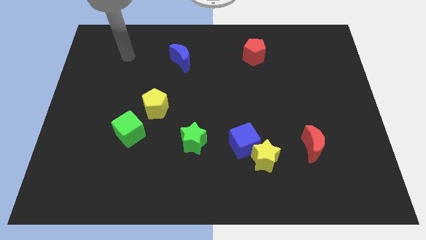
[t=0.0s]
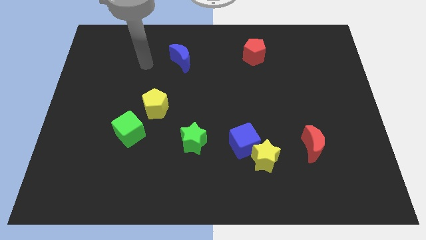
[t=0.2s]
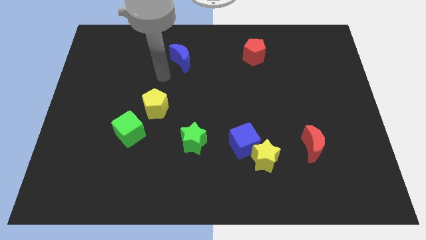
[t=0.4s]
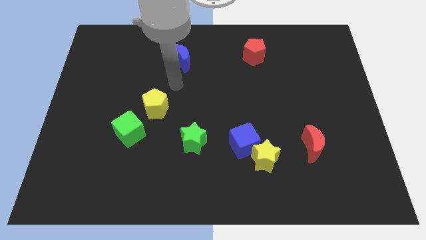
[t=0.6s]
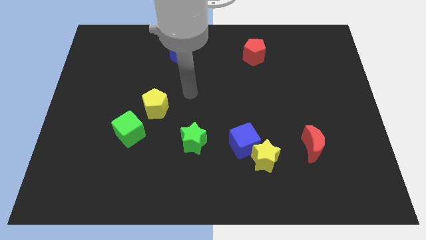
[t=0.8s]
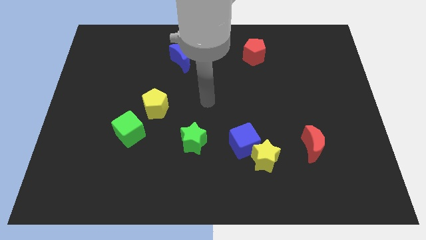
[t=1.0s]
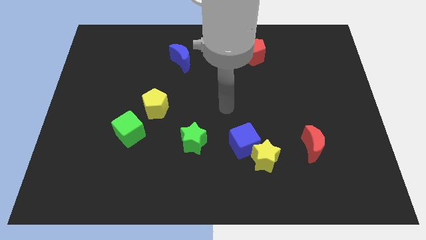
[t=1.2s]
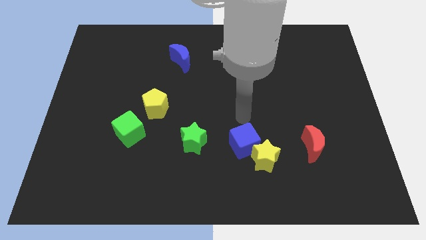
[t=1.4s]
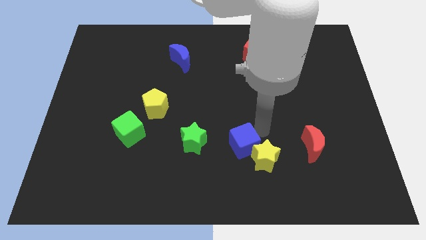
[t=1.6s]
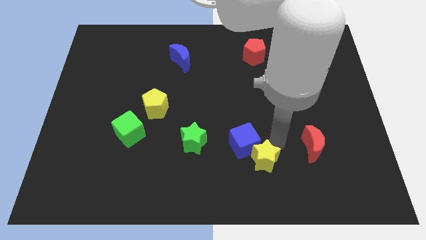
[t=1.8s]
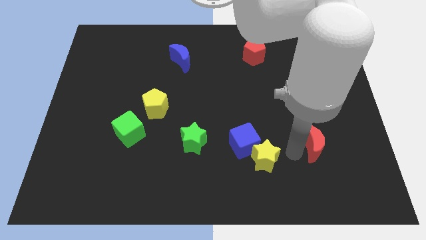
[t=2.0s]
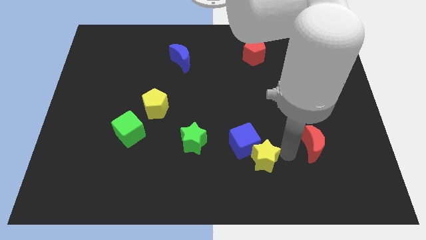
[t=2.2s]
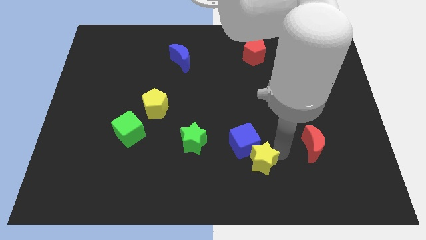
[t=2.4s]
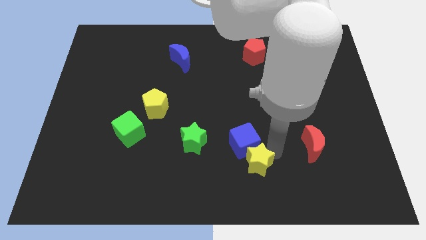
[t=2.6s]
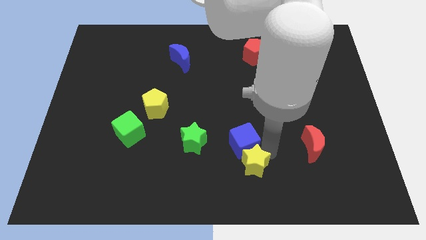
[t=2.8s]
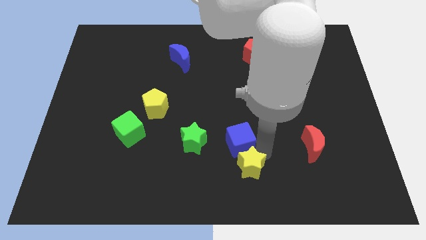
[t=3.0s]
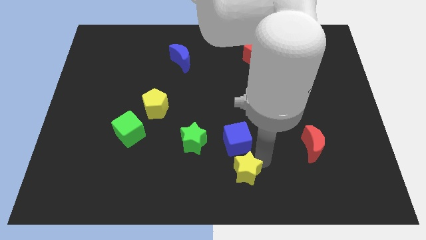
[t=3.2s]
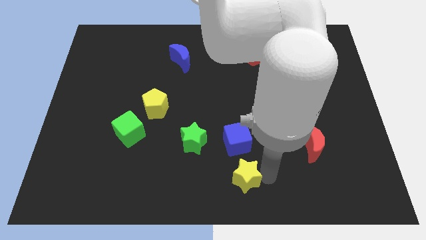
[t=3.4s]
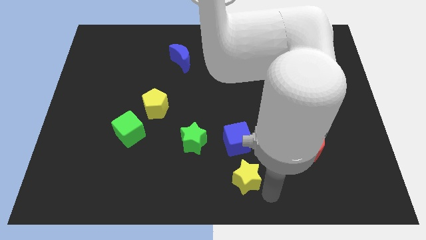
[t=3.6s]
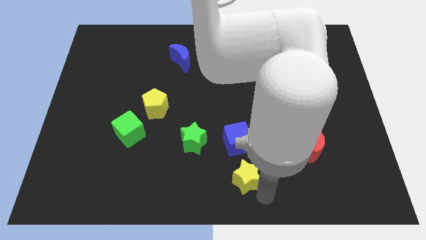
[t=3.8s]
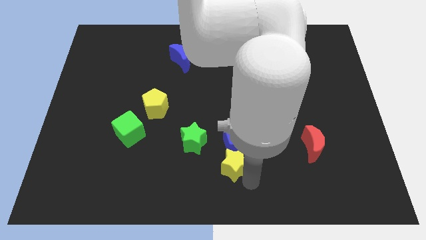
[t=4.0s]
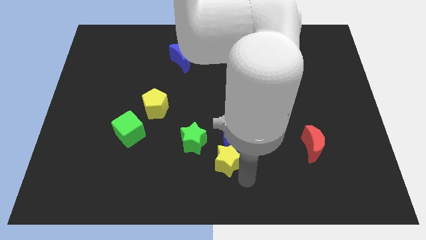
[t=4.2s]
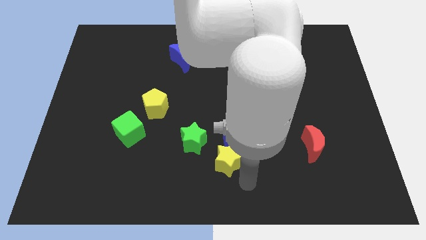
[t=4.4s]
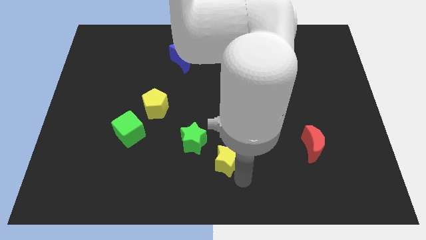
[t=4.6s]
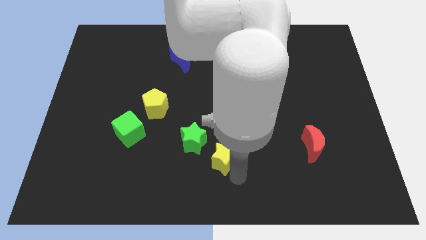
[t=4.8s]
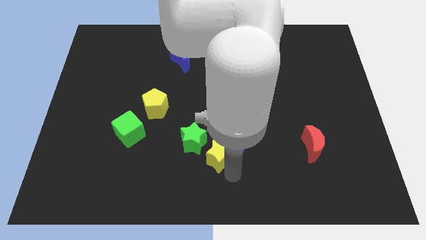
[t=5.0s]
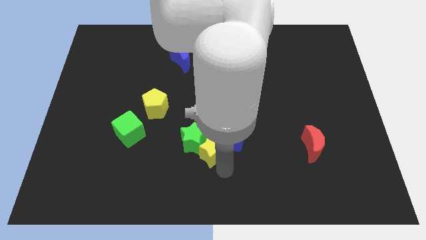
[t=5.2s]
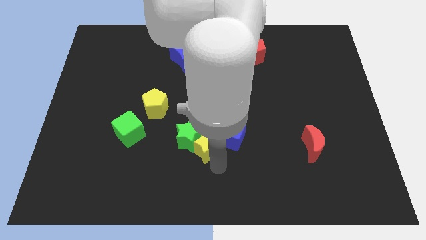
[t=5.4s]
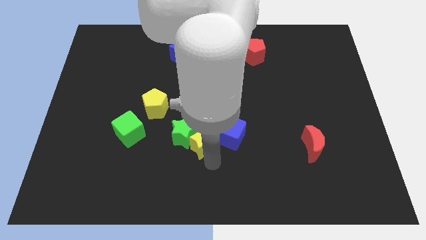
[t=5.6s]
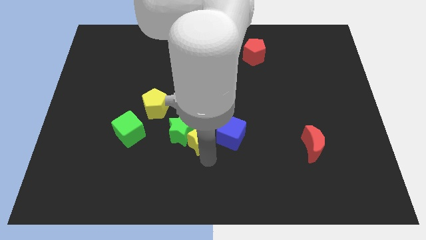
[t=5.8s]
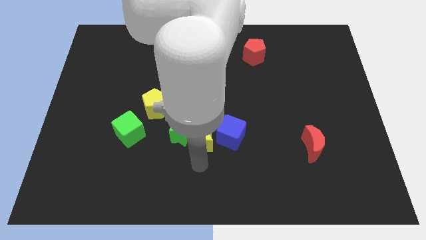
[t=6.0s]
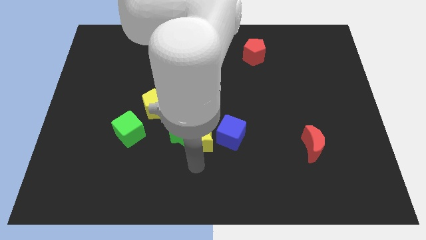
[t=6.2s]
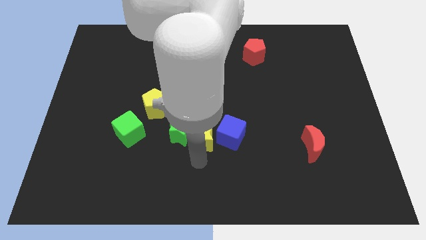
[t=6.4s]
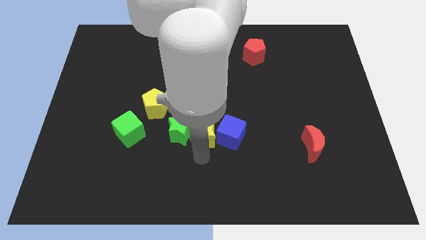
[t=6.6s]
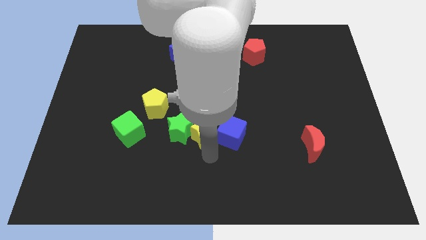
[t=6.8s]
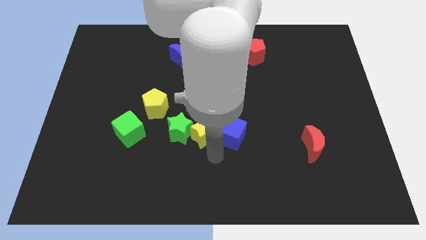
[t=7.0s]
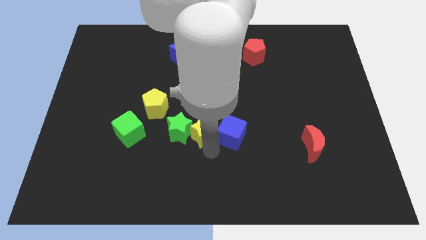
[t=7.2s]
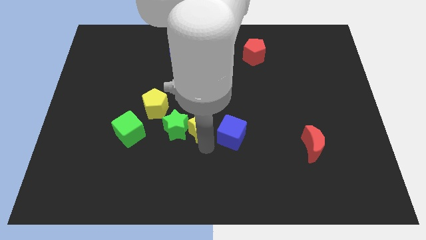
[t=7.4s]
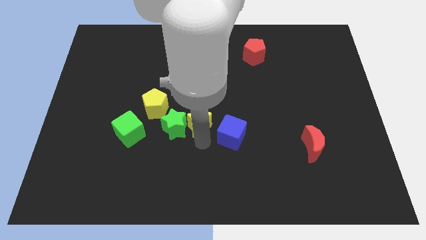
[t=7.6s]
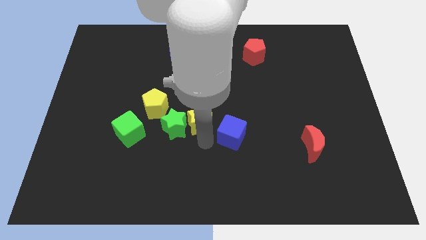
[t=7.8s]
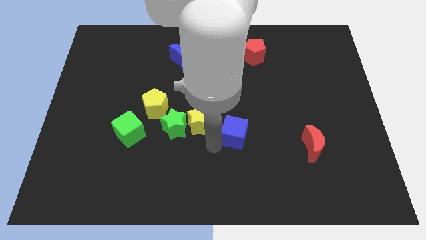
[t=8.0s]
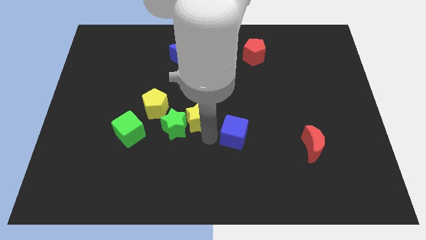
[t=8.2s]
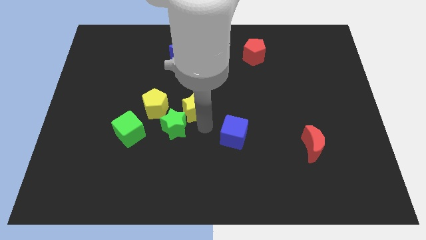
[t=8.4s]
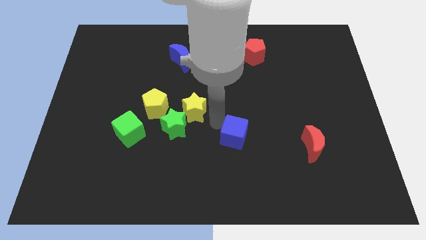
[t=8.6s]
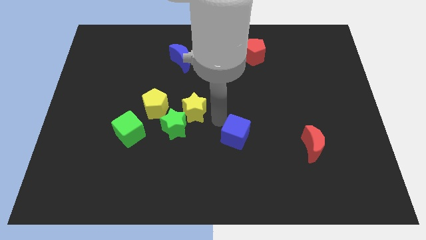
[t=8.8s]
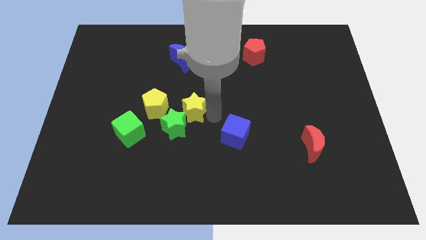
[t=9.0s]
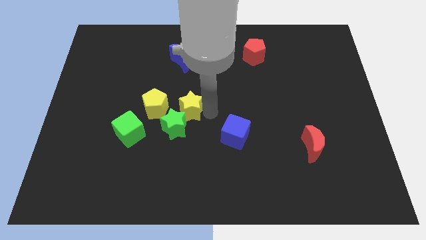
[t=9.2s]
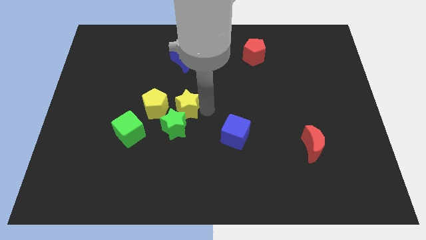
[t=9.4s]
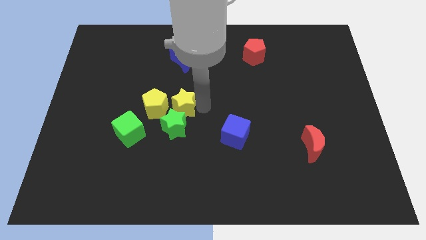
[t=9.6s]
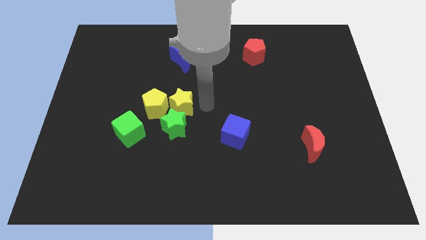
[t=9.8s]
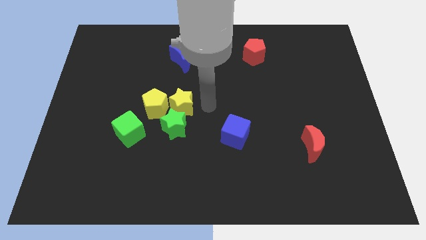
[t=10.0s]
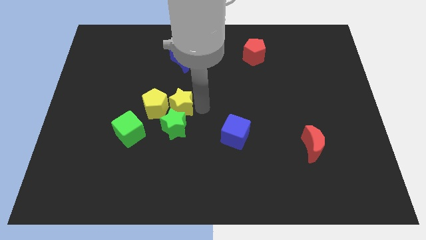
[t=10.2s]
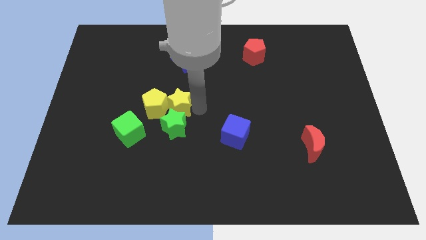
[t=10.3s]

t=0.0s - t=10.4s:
push the yellow star next to the yellow pentagon

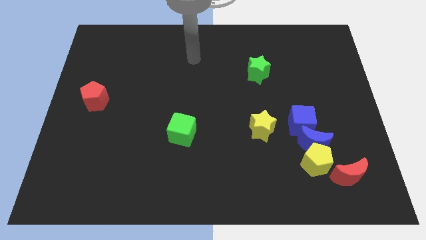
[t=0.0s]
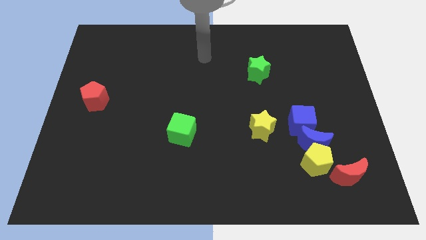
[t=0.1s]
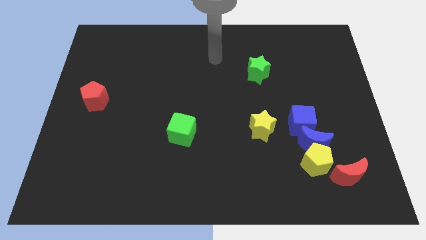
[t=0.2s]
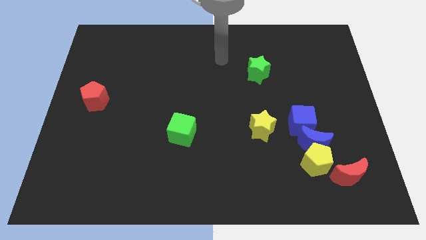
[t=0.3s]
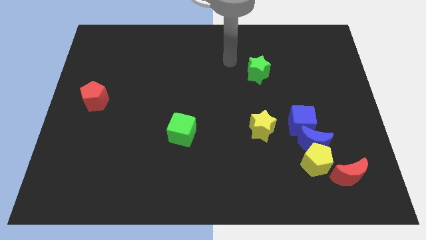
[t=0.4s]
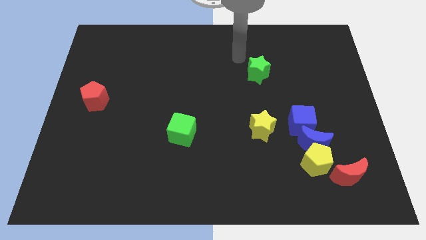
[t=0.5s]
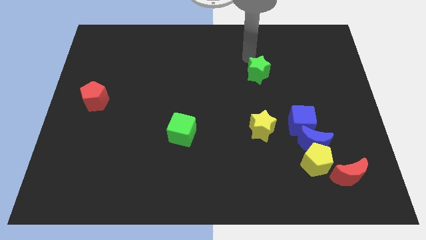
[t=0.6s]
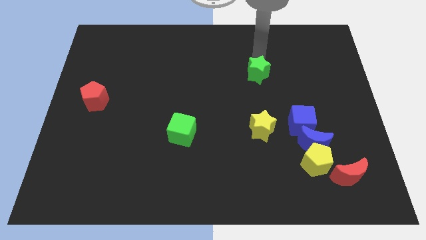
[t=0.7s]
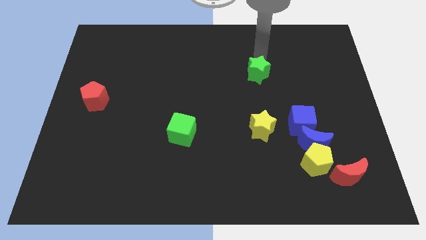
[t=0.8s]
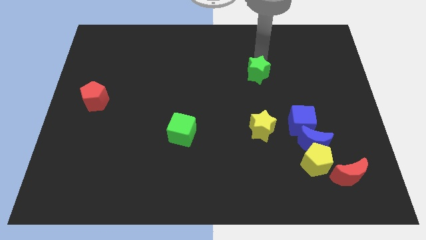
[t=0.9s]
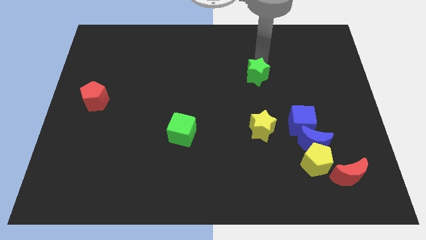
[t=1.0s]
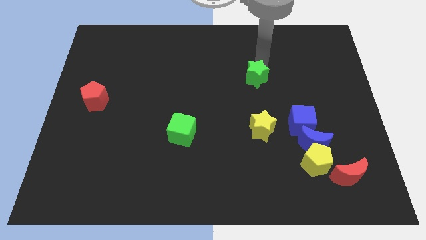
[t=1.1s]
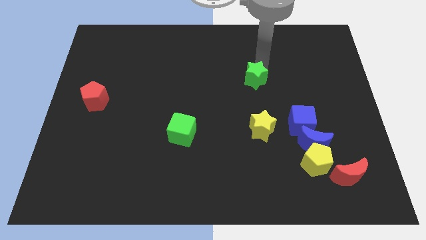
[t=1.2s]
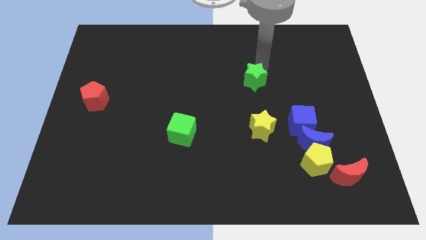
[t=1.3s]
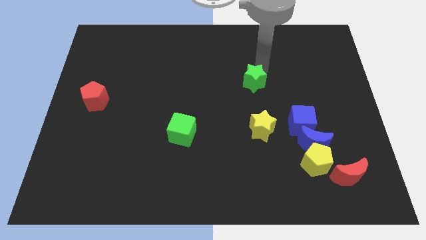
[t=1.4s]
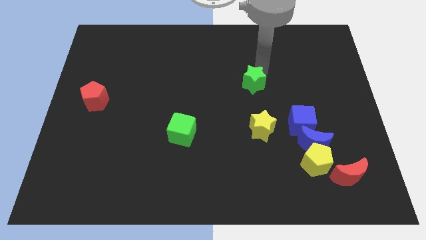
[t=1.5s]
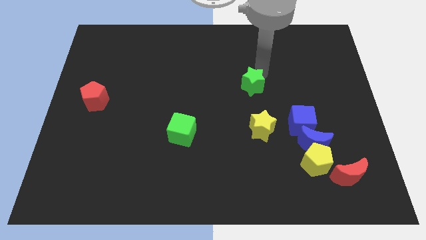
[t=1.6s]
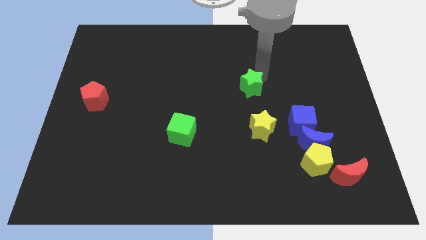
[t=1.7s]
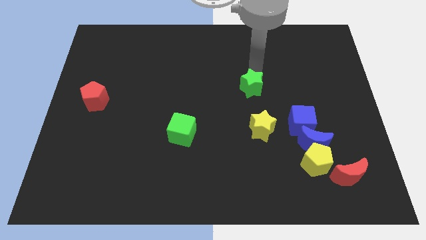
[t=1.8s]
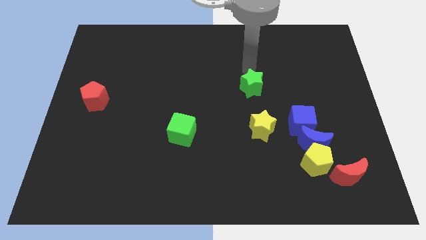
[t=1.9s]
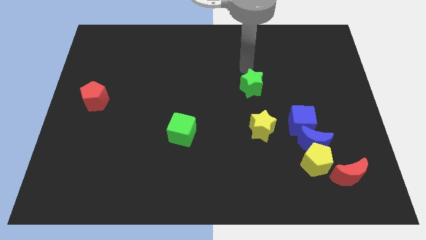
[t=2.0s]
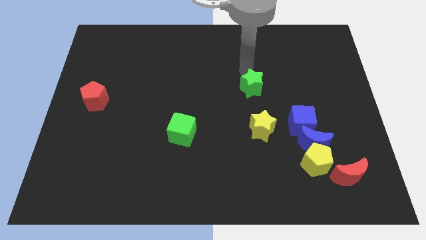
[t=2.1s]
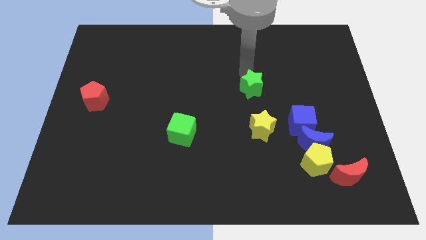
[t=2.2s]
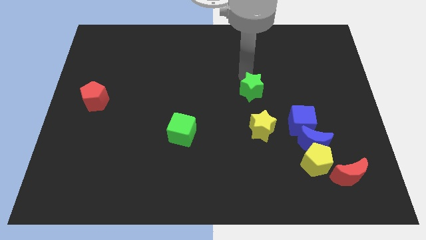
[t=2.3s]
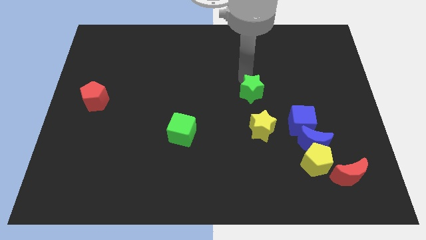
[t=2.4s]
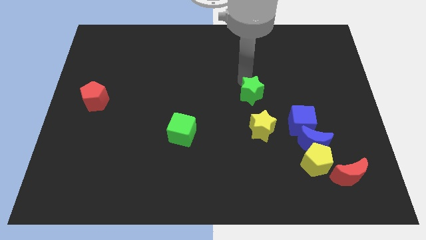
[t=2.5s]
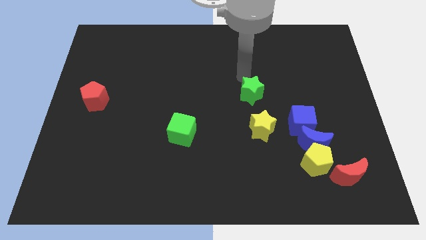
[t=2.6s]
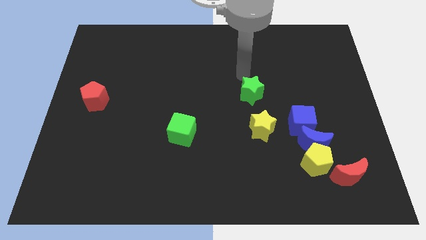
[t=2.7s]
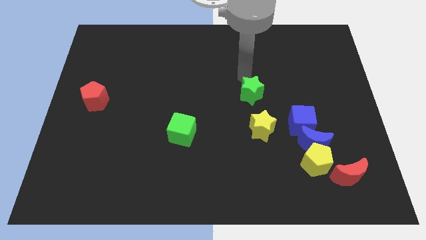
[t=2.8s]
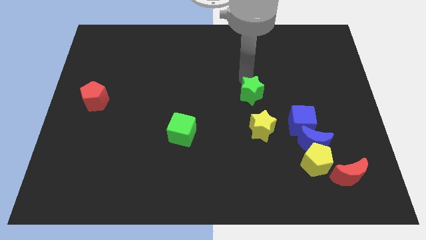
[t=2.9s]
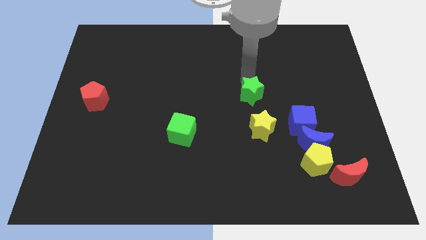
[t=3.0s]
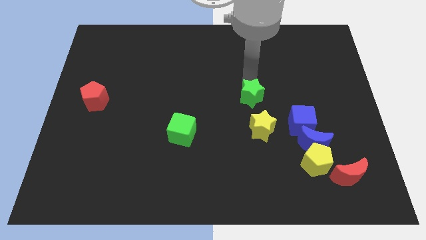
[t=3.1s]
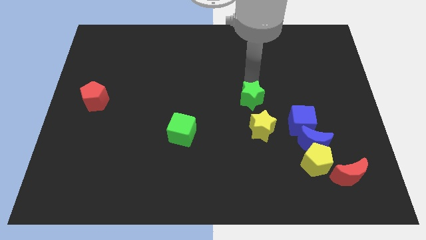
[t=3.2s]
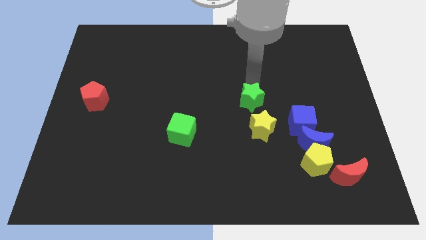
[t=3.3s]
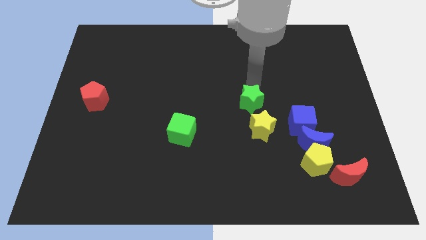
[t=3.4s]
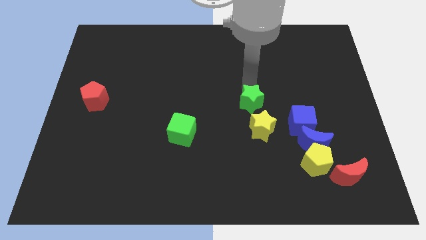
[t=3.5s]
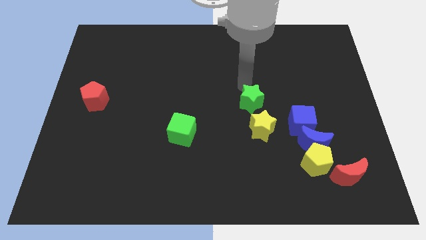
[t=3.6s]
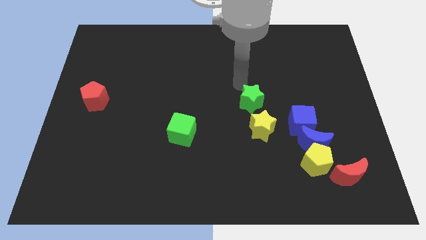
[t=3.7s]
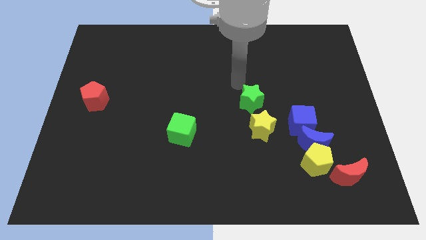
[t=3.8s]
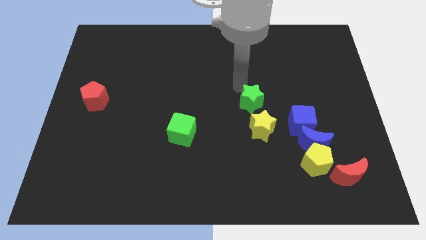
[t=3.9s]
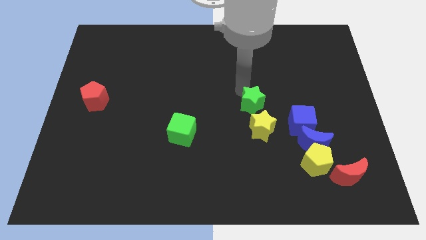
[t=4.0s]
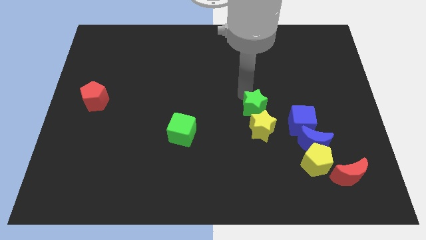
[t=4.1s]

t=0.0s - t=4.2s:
move the green star to the yellow star
